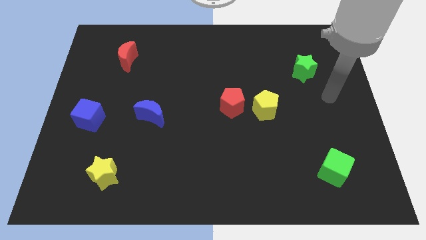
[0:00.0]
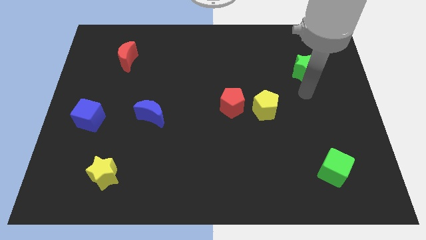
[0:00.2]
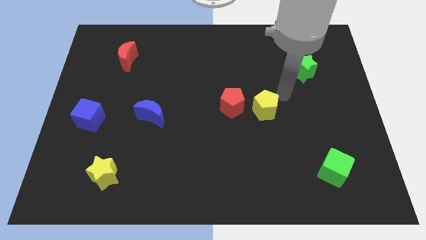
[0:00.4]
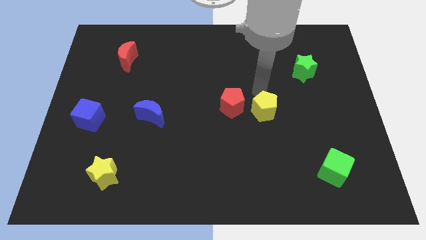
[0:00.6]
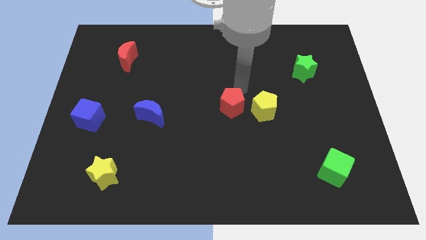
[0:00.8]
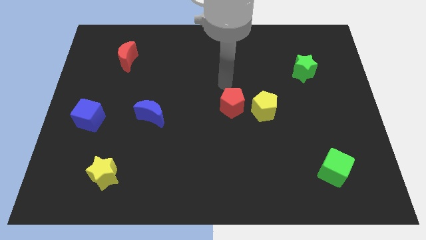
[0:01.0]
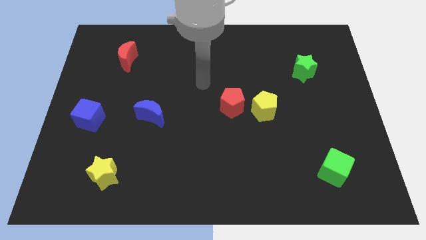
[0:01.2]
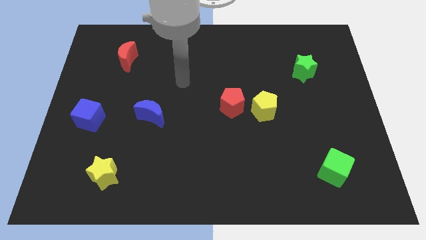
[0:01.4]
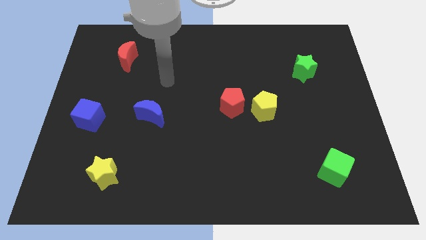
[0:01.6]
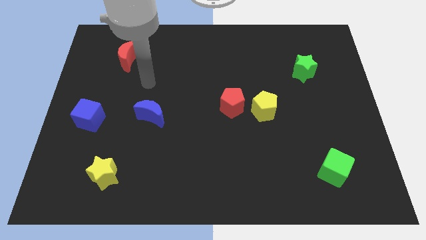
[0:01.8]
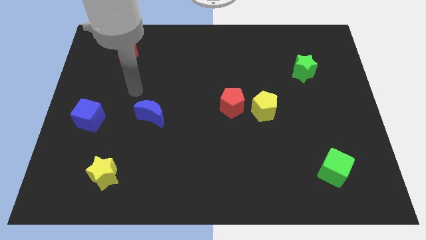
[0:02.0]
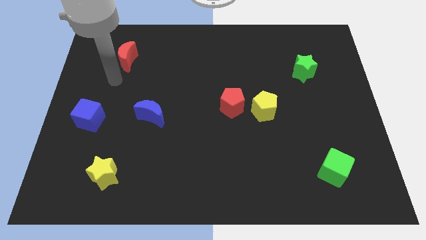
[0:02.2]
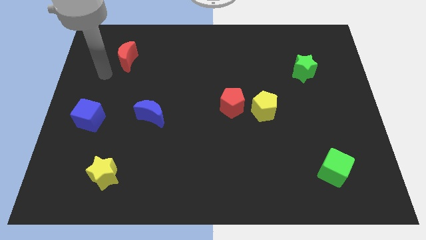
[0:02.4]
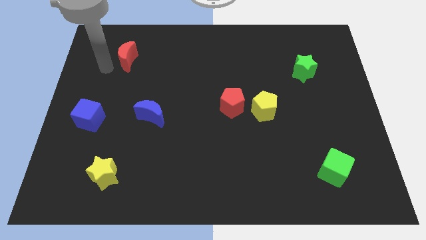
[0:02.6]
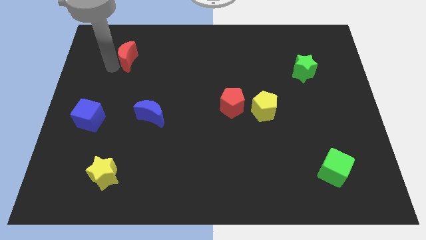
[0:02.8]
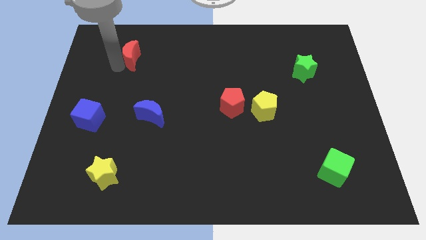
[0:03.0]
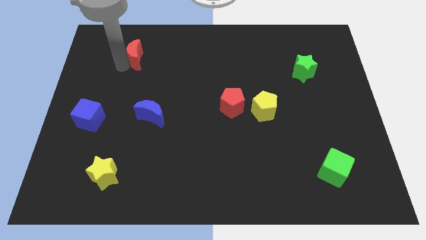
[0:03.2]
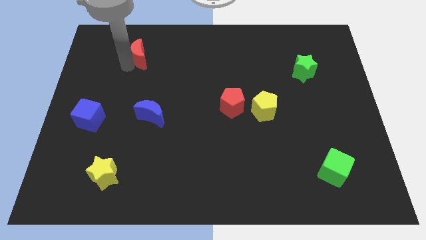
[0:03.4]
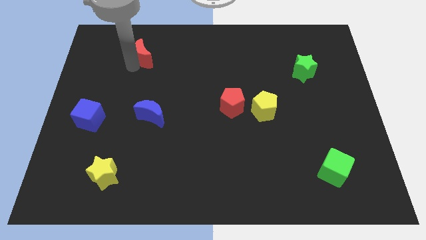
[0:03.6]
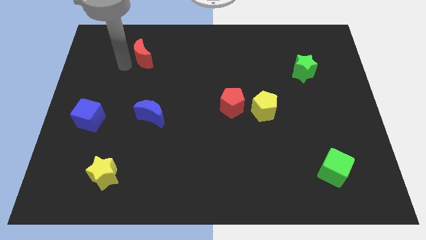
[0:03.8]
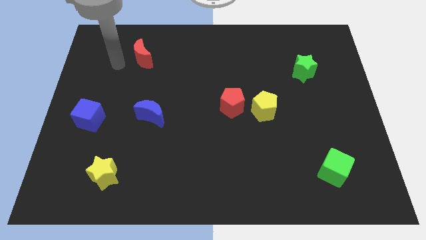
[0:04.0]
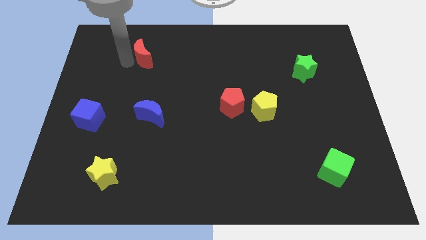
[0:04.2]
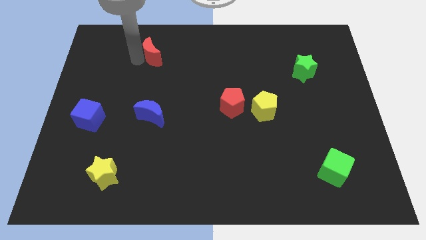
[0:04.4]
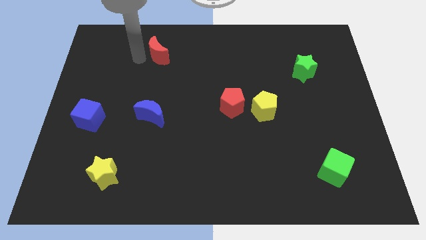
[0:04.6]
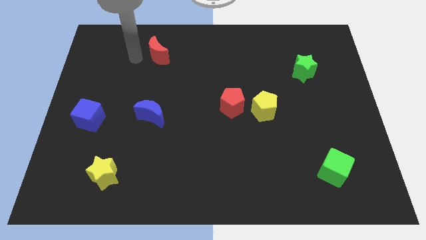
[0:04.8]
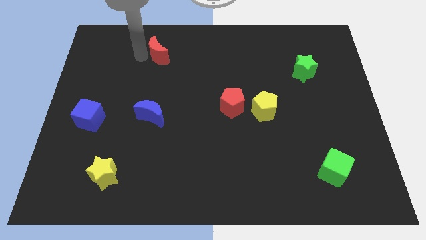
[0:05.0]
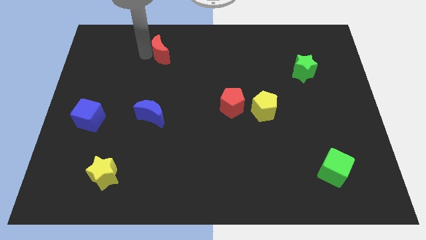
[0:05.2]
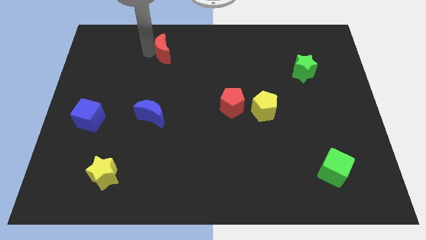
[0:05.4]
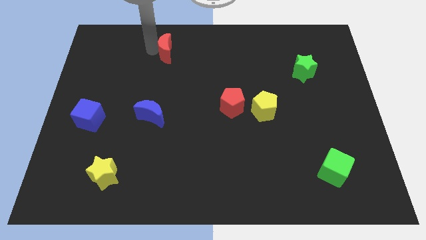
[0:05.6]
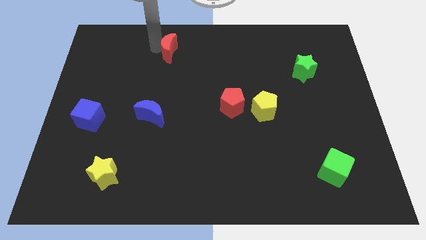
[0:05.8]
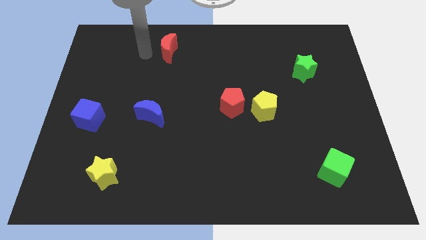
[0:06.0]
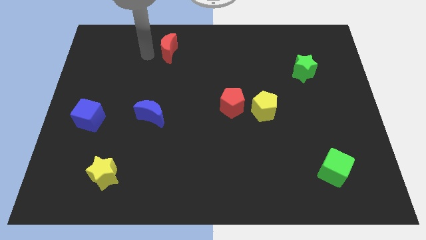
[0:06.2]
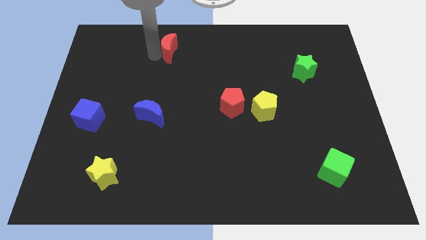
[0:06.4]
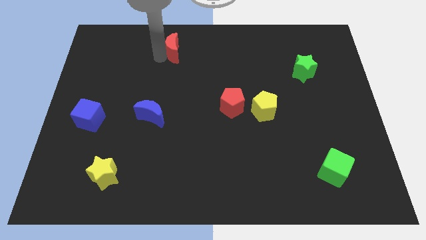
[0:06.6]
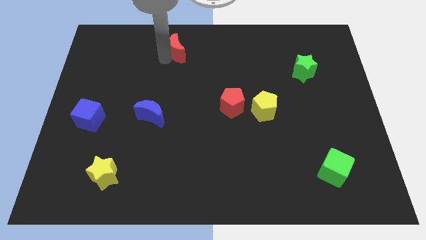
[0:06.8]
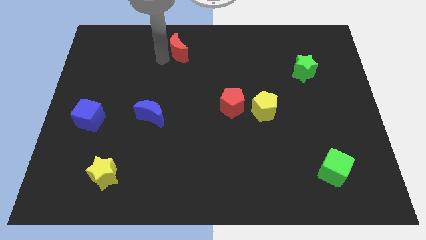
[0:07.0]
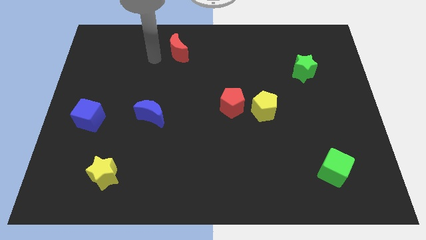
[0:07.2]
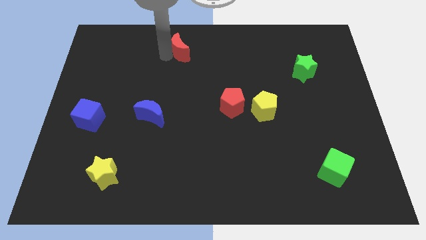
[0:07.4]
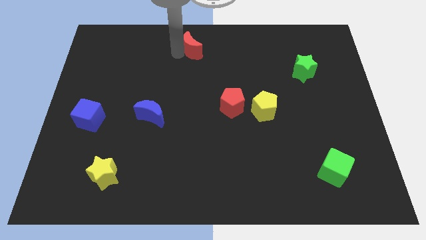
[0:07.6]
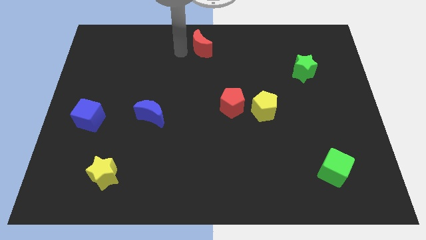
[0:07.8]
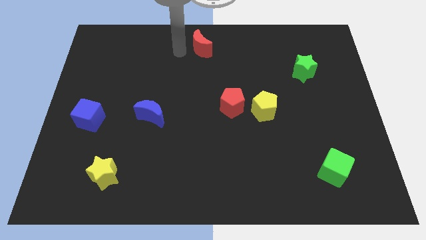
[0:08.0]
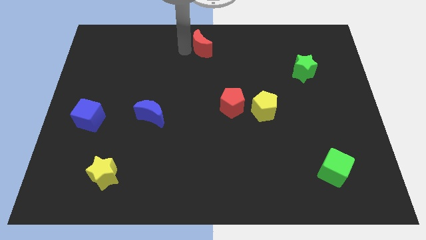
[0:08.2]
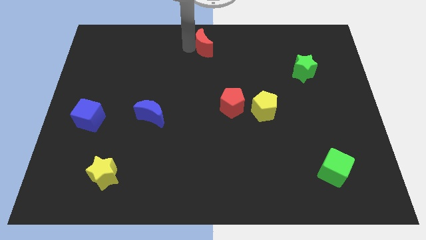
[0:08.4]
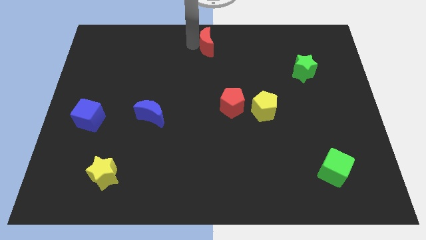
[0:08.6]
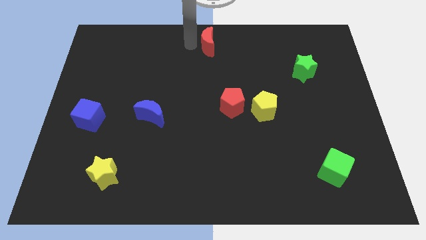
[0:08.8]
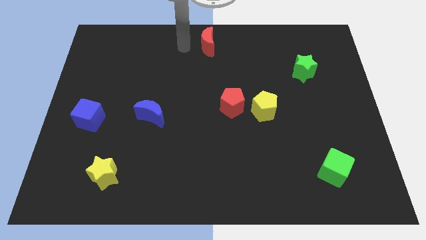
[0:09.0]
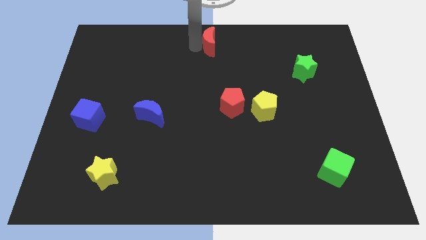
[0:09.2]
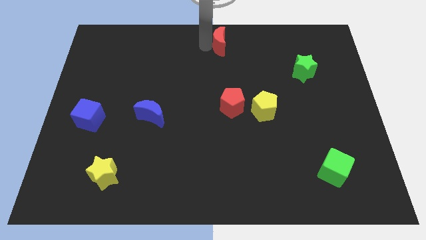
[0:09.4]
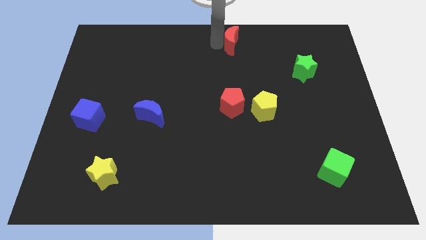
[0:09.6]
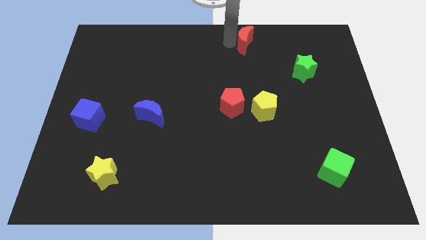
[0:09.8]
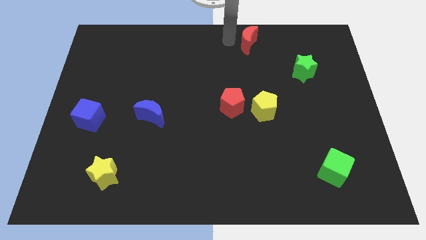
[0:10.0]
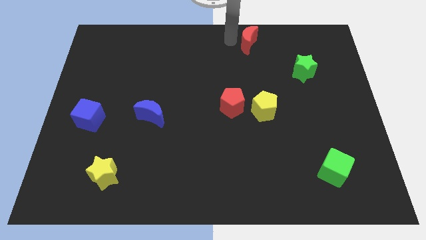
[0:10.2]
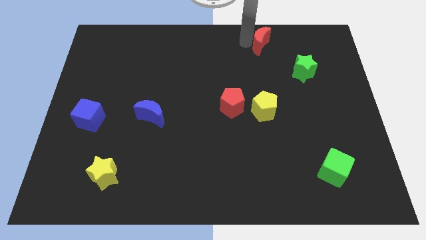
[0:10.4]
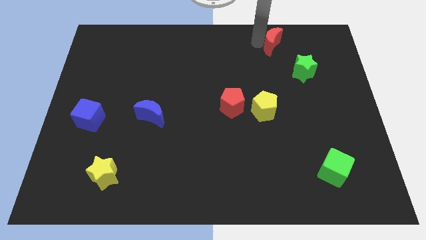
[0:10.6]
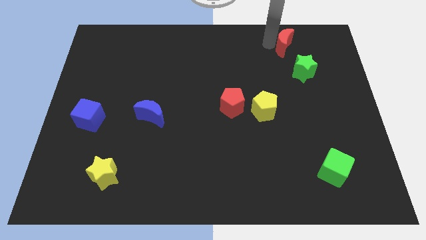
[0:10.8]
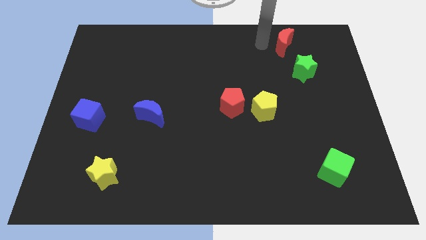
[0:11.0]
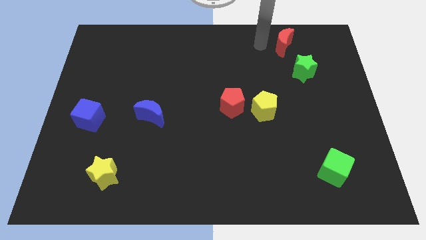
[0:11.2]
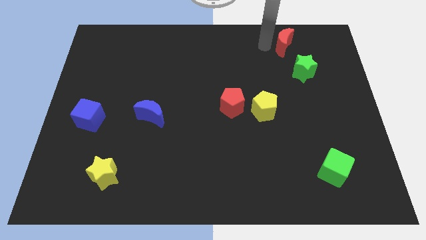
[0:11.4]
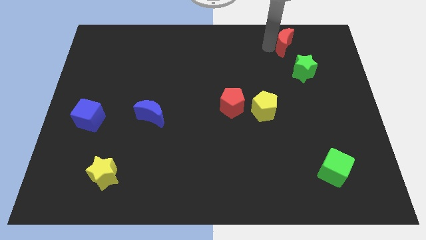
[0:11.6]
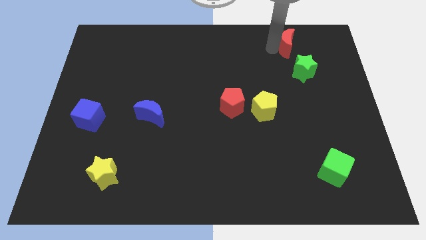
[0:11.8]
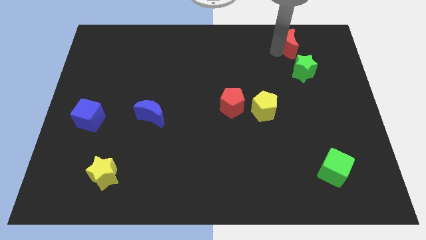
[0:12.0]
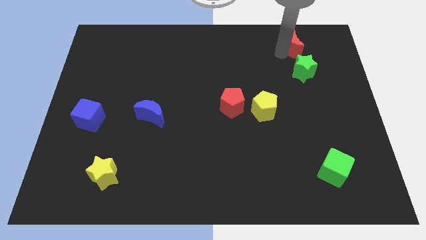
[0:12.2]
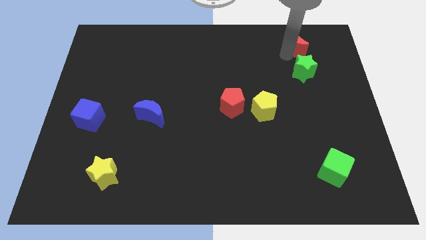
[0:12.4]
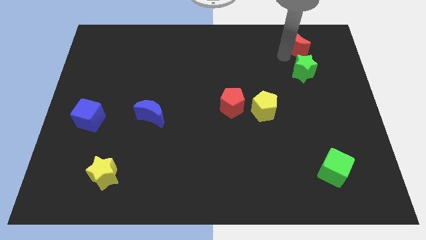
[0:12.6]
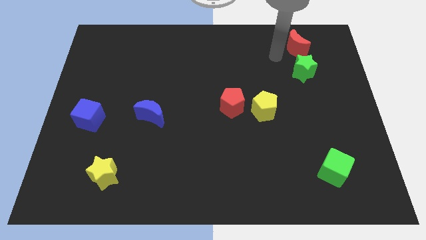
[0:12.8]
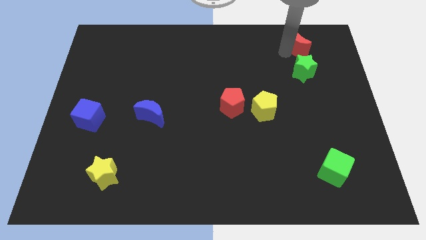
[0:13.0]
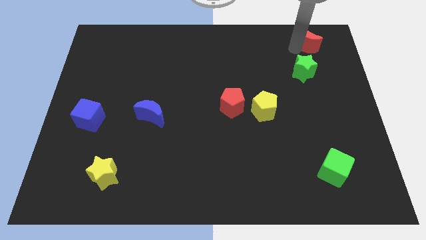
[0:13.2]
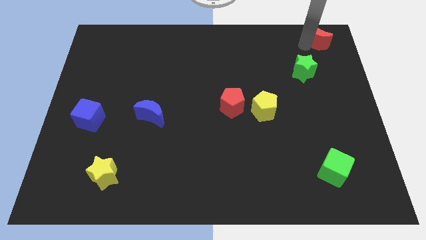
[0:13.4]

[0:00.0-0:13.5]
put the red moon to the upper right corner

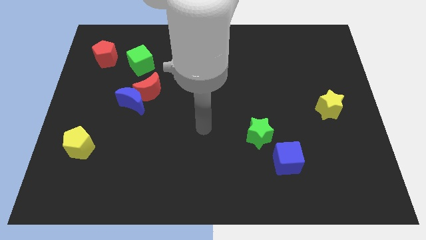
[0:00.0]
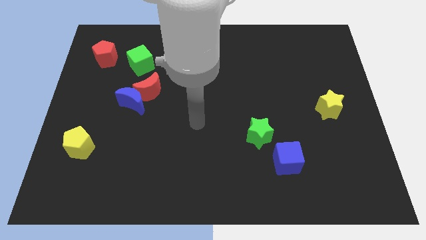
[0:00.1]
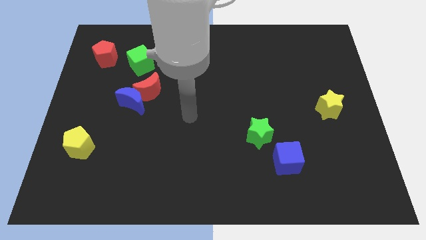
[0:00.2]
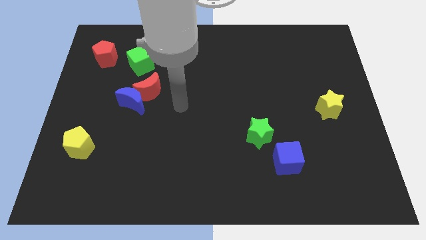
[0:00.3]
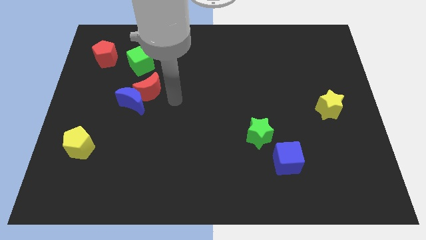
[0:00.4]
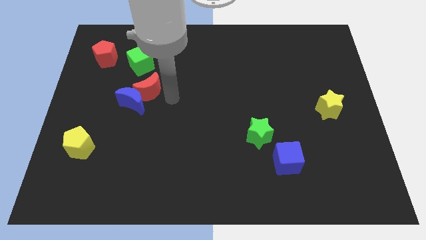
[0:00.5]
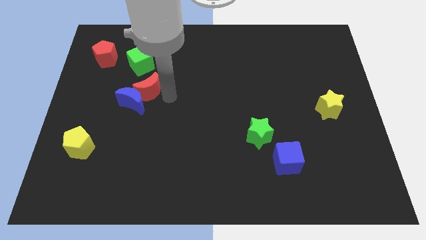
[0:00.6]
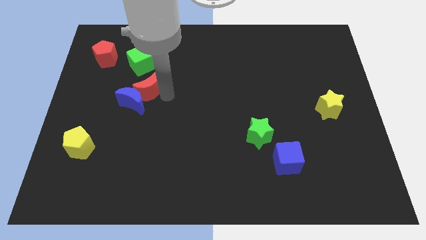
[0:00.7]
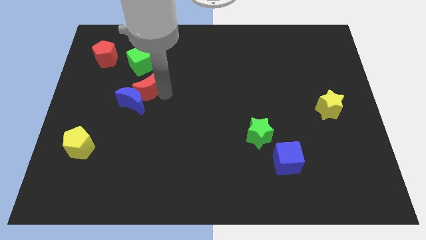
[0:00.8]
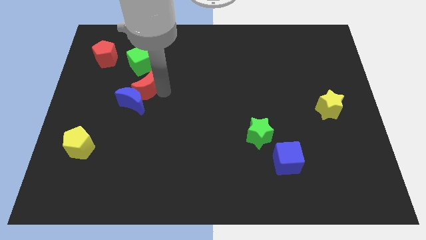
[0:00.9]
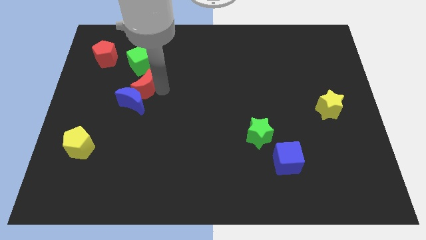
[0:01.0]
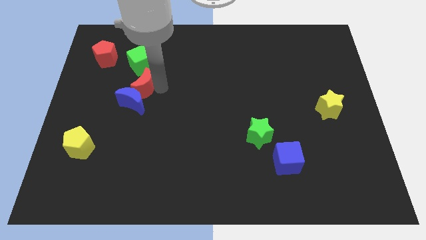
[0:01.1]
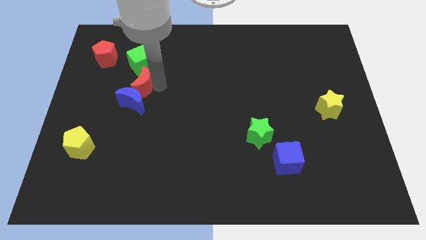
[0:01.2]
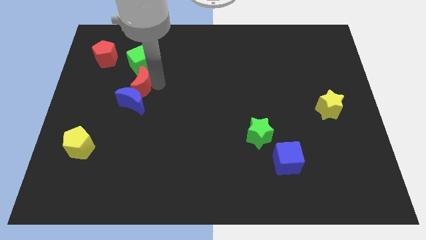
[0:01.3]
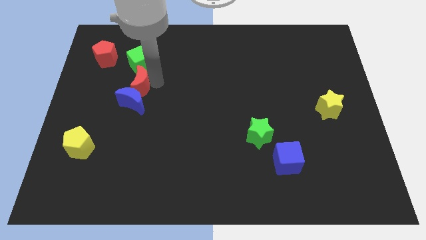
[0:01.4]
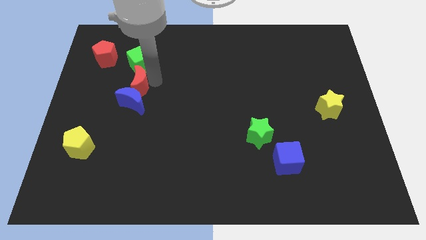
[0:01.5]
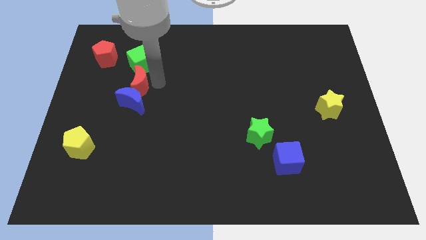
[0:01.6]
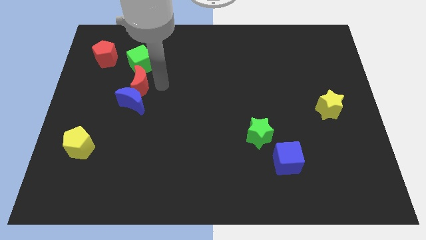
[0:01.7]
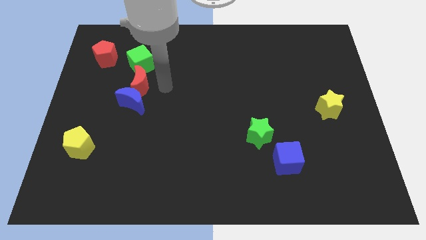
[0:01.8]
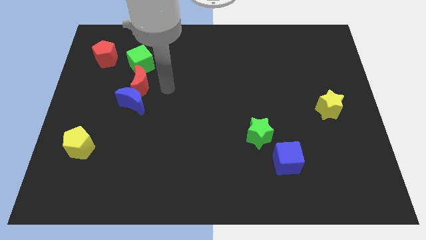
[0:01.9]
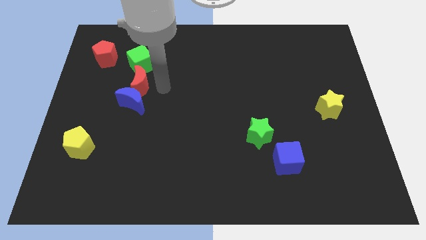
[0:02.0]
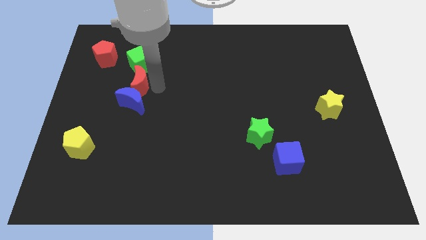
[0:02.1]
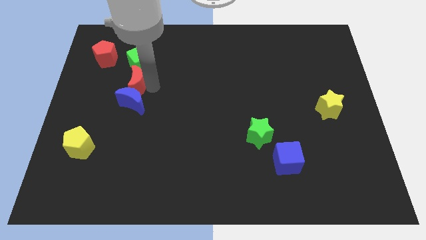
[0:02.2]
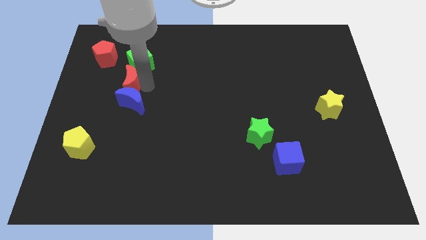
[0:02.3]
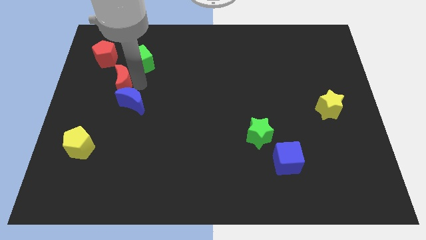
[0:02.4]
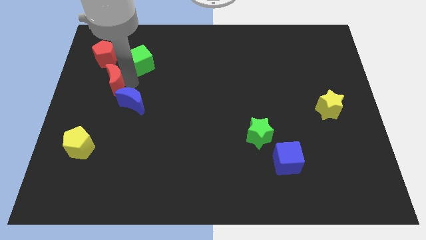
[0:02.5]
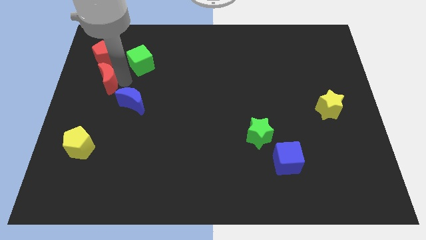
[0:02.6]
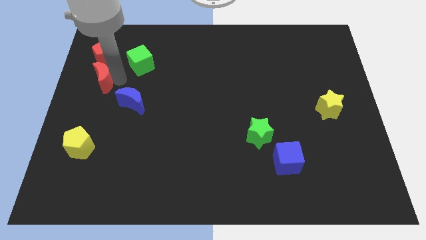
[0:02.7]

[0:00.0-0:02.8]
slide the red moon to the center left
